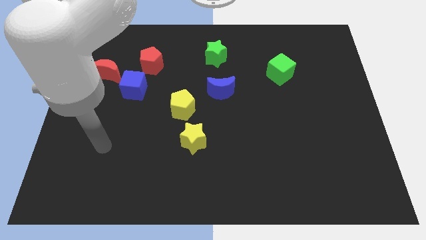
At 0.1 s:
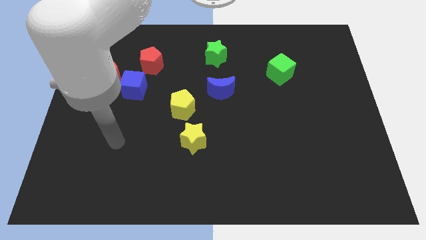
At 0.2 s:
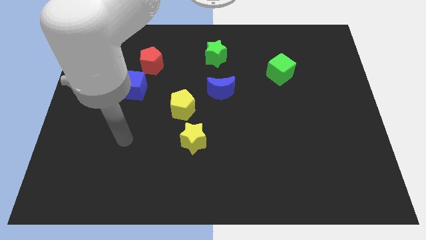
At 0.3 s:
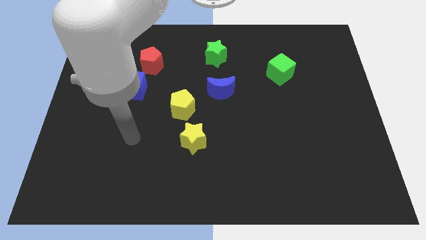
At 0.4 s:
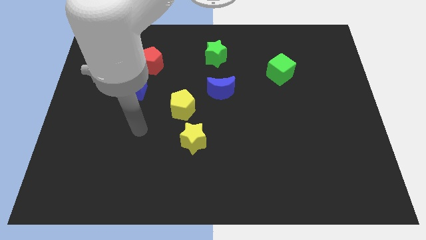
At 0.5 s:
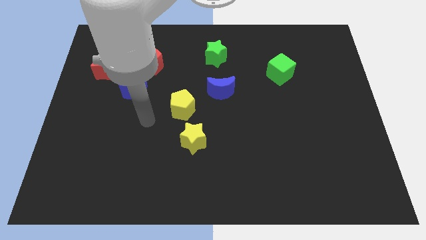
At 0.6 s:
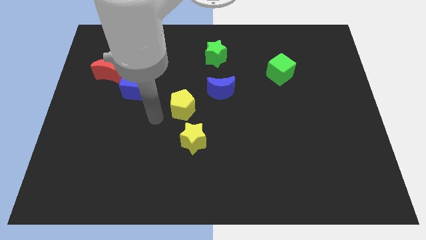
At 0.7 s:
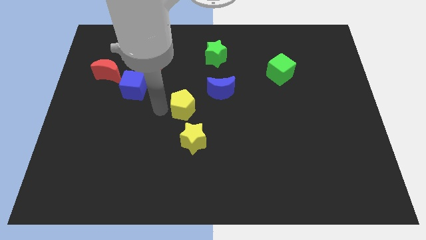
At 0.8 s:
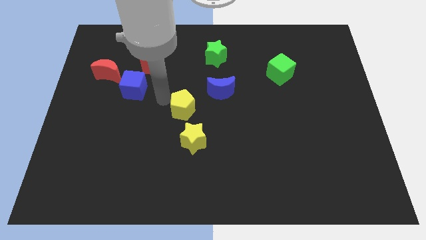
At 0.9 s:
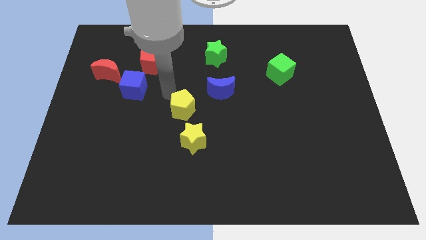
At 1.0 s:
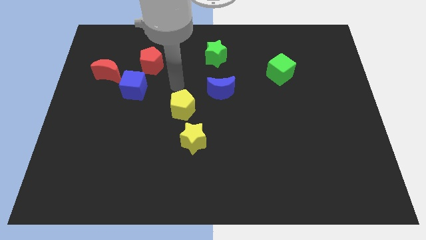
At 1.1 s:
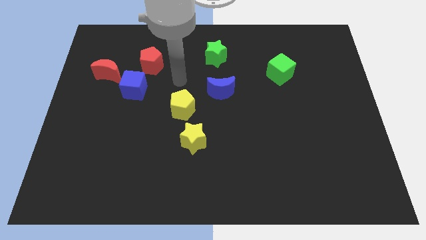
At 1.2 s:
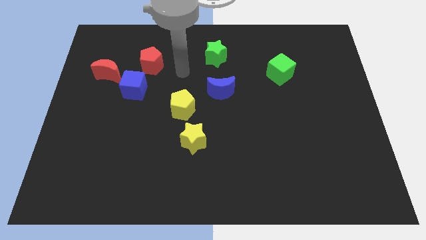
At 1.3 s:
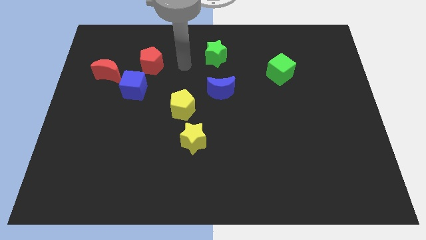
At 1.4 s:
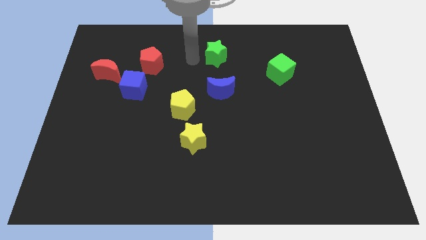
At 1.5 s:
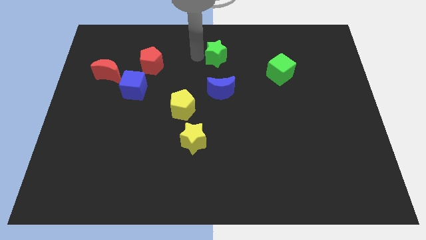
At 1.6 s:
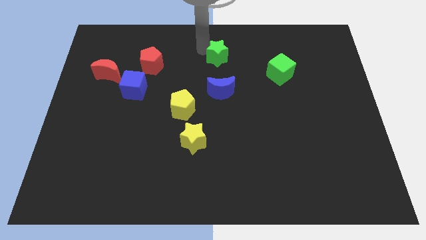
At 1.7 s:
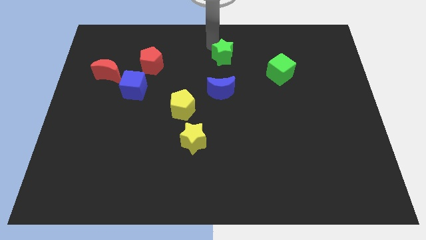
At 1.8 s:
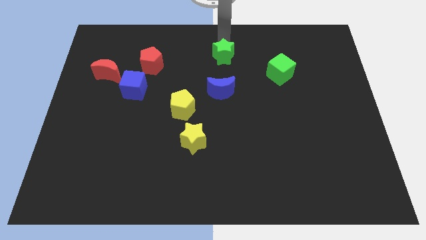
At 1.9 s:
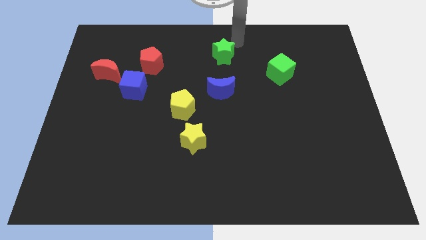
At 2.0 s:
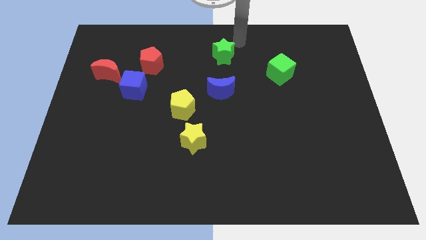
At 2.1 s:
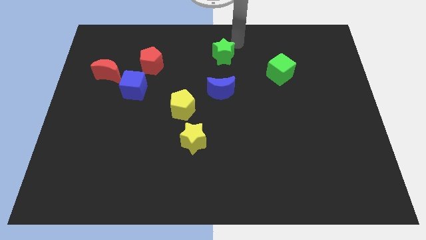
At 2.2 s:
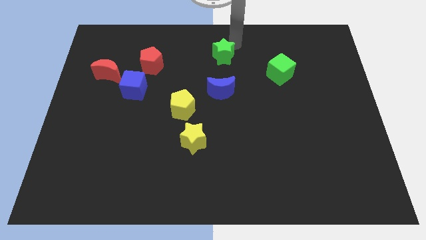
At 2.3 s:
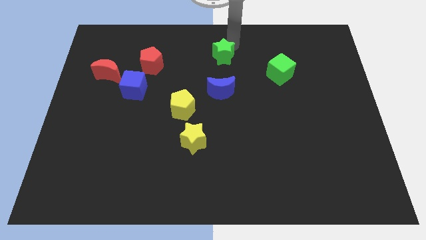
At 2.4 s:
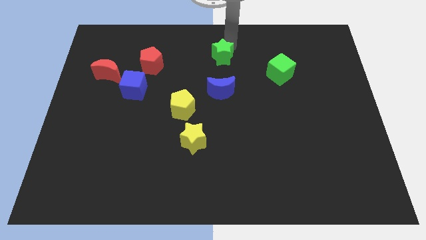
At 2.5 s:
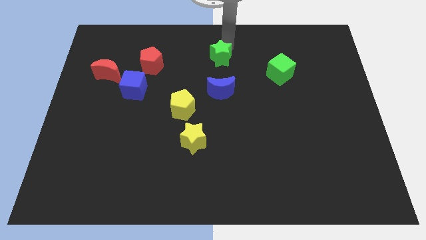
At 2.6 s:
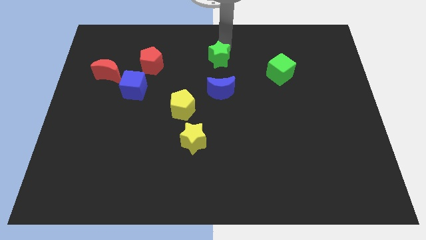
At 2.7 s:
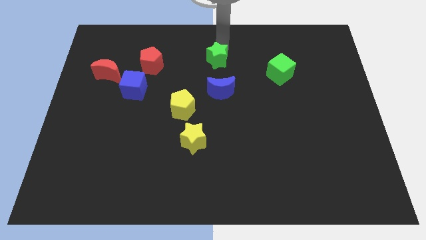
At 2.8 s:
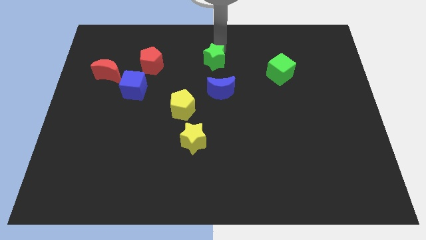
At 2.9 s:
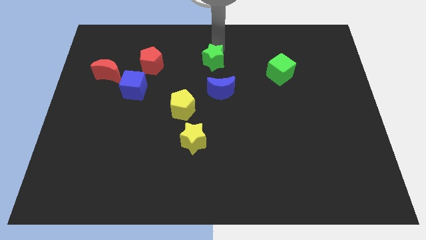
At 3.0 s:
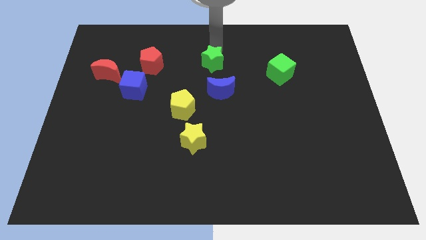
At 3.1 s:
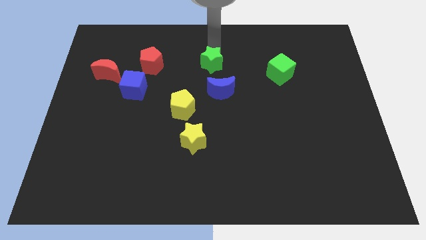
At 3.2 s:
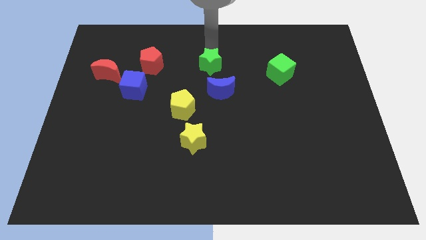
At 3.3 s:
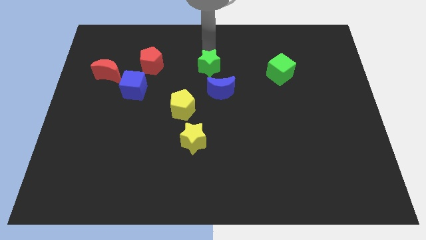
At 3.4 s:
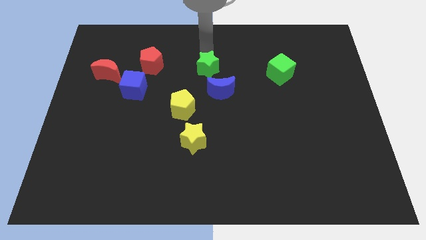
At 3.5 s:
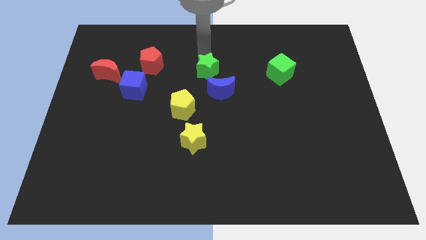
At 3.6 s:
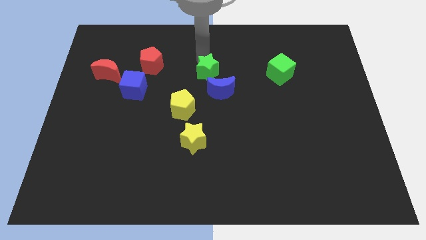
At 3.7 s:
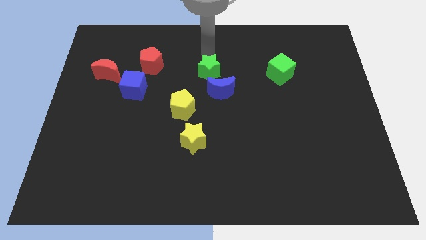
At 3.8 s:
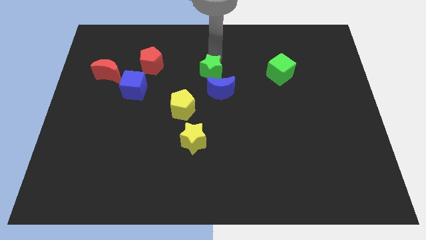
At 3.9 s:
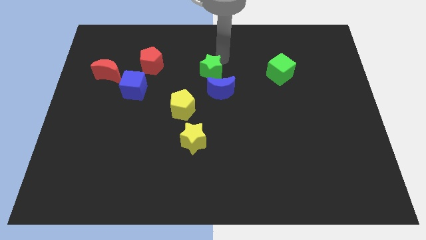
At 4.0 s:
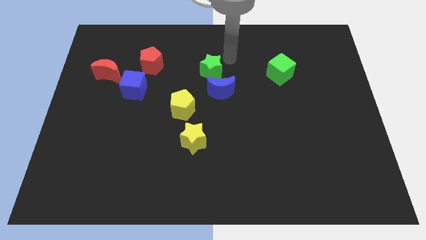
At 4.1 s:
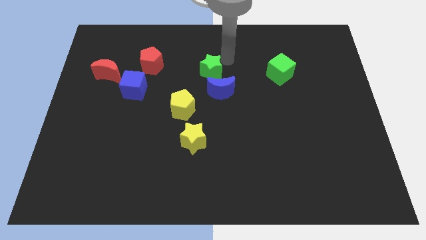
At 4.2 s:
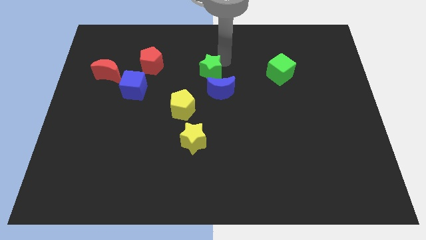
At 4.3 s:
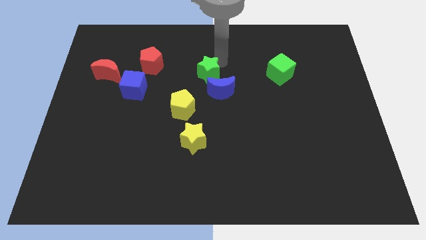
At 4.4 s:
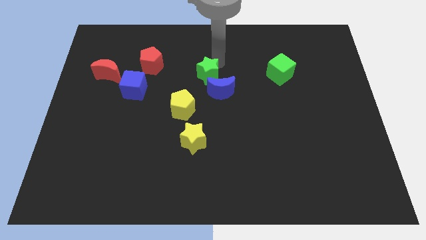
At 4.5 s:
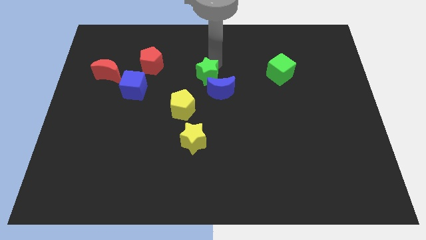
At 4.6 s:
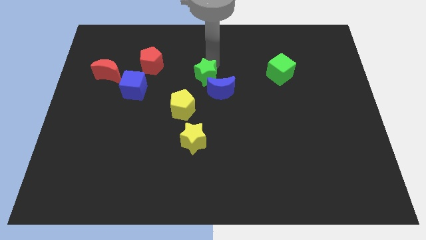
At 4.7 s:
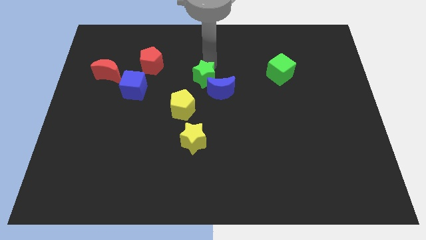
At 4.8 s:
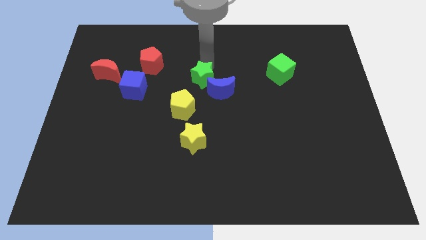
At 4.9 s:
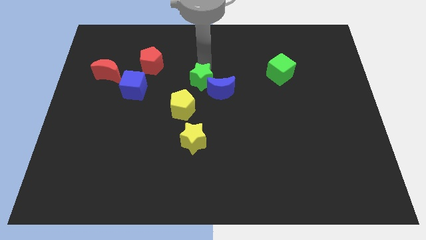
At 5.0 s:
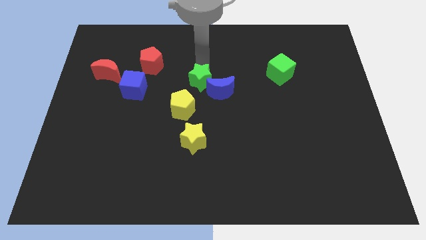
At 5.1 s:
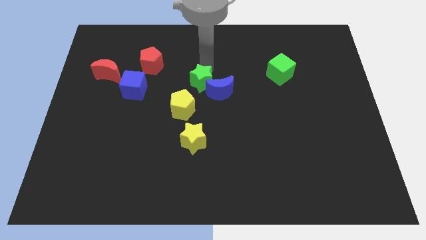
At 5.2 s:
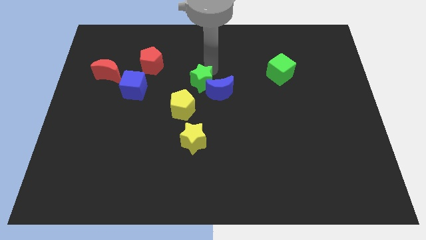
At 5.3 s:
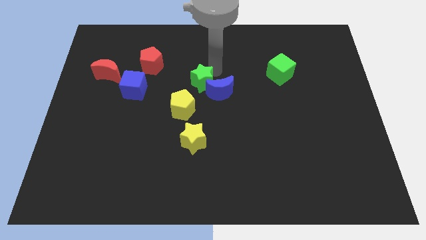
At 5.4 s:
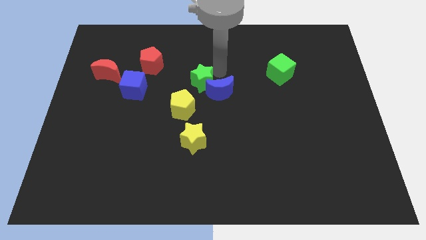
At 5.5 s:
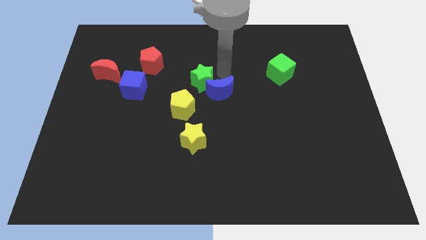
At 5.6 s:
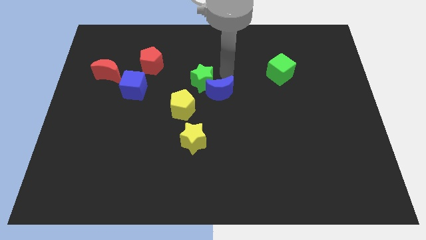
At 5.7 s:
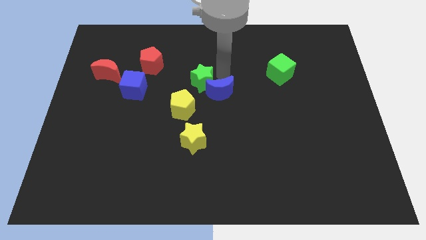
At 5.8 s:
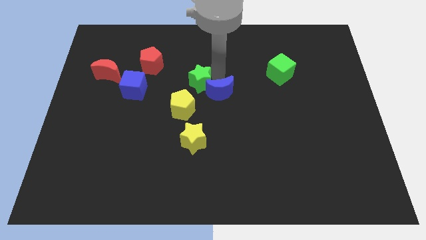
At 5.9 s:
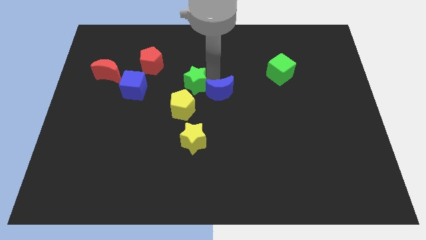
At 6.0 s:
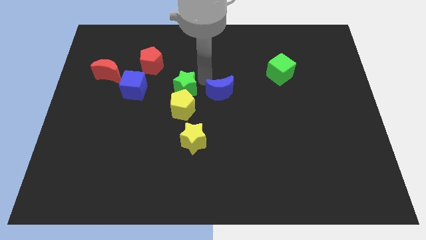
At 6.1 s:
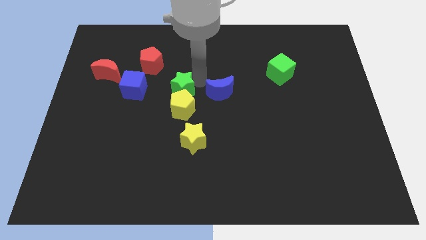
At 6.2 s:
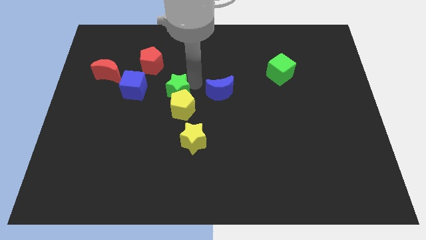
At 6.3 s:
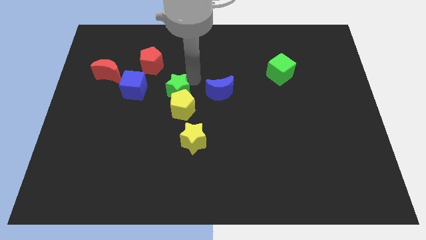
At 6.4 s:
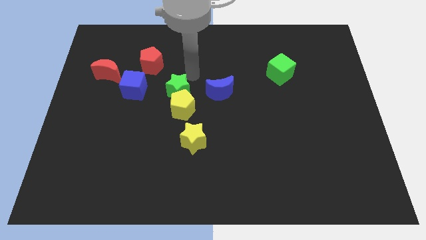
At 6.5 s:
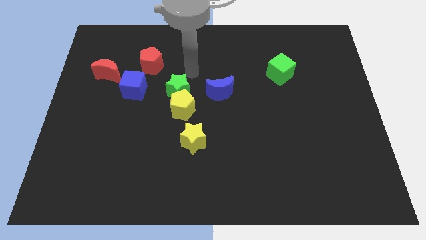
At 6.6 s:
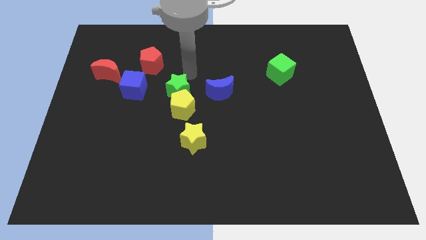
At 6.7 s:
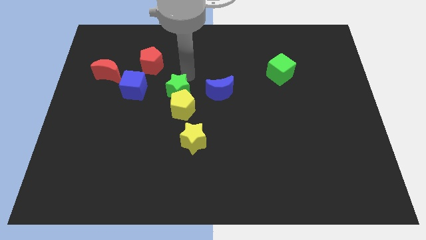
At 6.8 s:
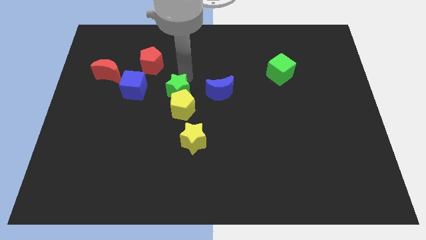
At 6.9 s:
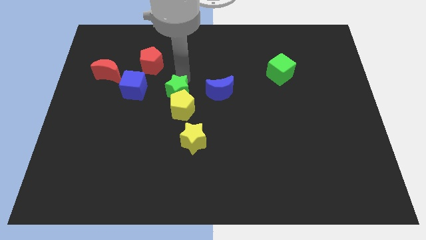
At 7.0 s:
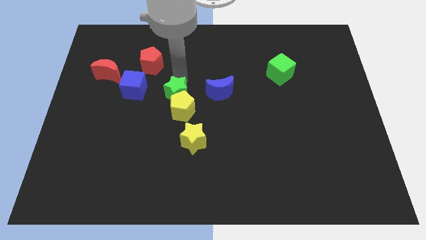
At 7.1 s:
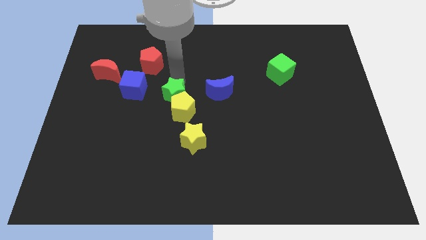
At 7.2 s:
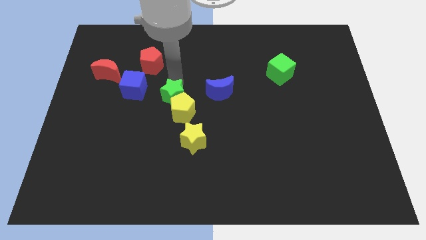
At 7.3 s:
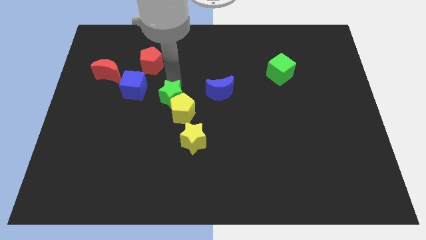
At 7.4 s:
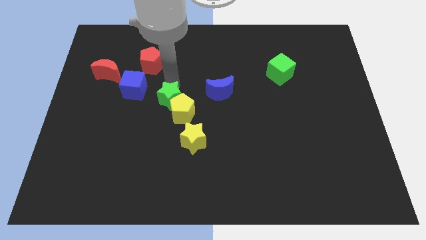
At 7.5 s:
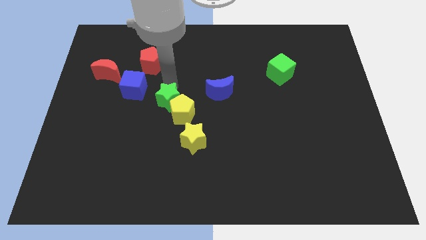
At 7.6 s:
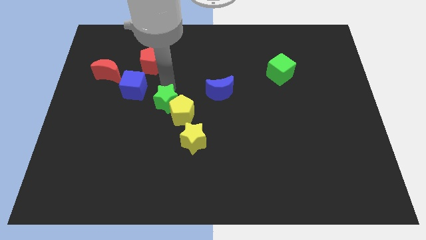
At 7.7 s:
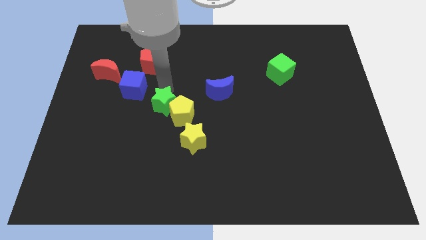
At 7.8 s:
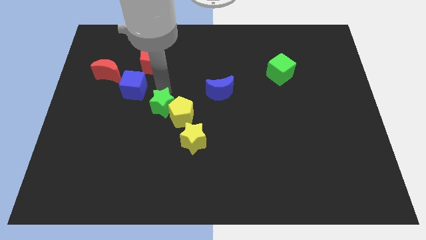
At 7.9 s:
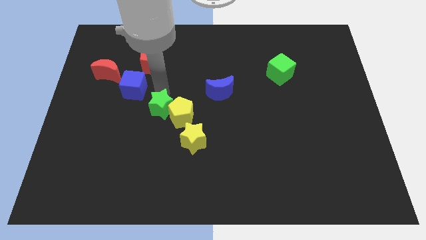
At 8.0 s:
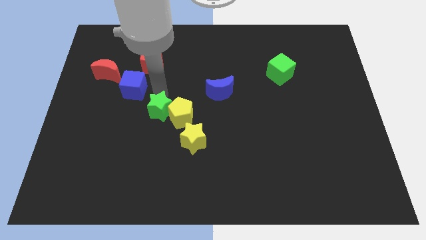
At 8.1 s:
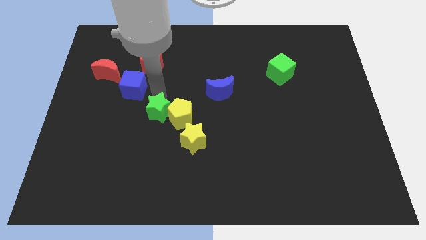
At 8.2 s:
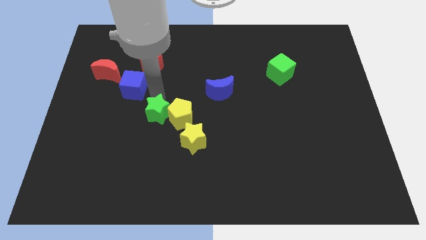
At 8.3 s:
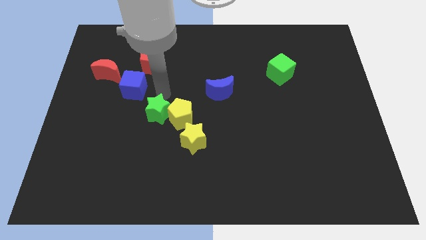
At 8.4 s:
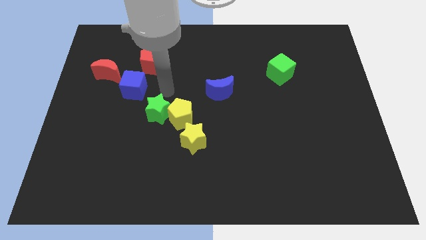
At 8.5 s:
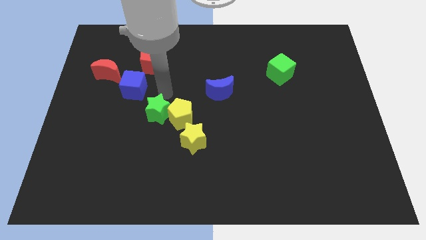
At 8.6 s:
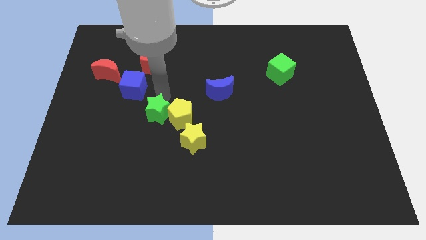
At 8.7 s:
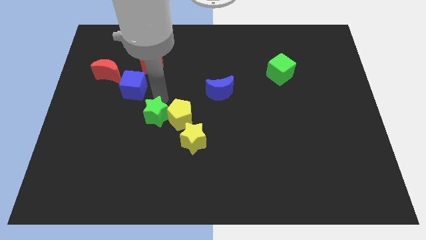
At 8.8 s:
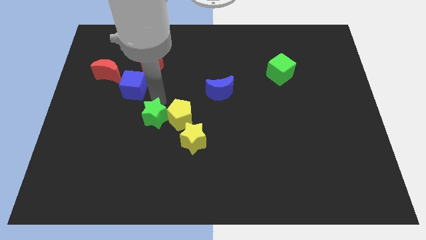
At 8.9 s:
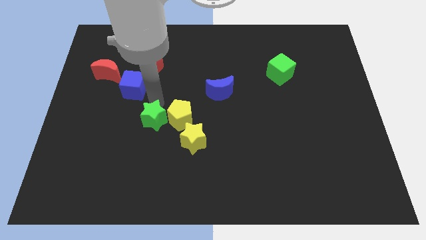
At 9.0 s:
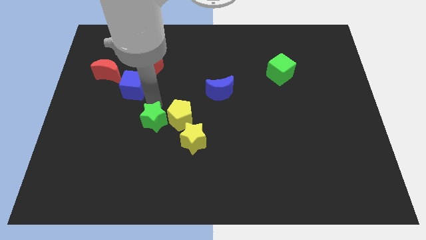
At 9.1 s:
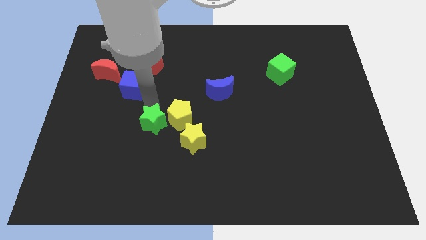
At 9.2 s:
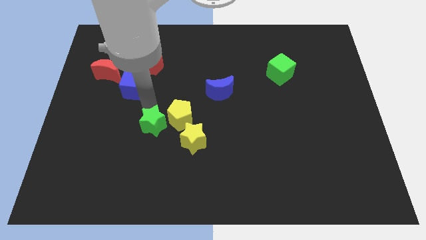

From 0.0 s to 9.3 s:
push the green star to the left side of the yellow star
